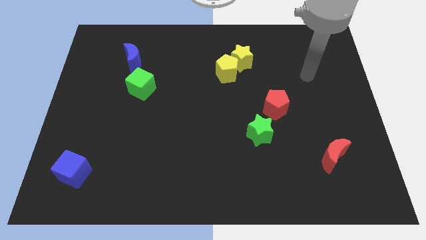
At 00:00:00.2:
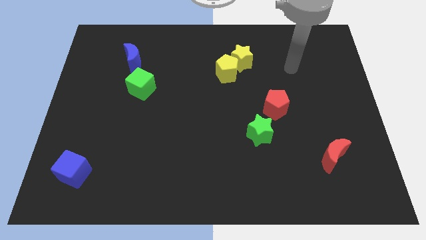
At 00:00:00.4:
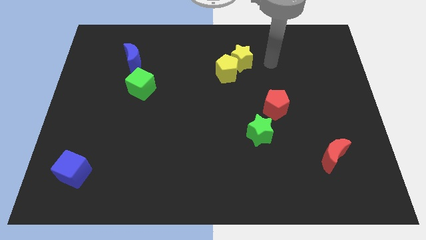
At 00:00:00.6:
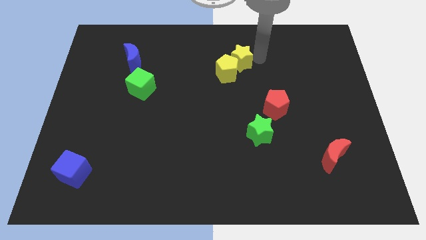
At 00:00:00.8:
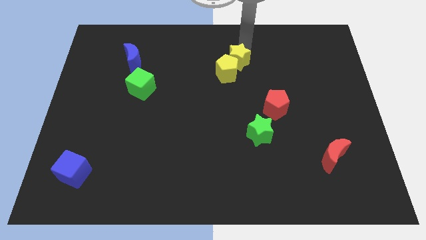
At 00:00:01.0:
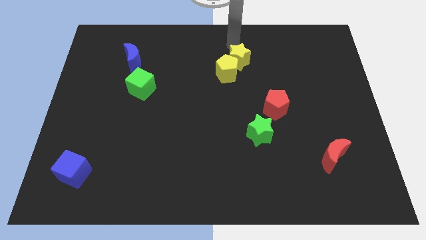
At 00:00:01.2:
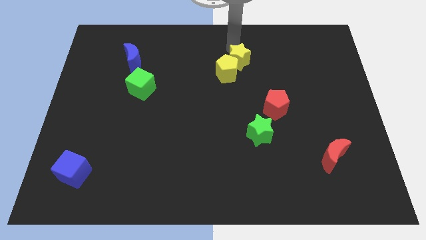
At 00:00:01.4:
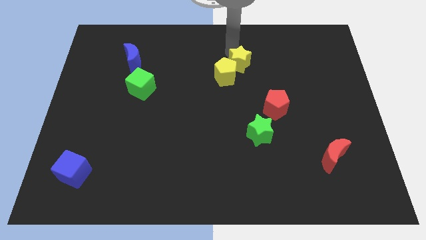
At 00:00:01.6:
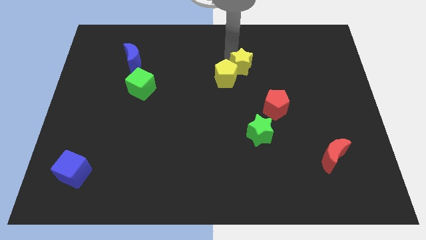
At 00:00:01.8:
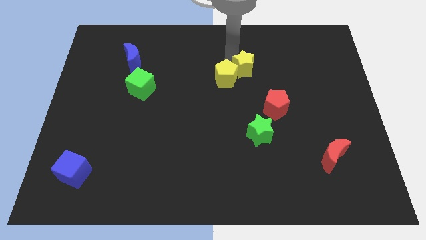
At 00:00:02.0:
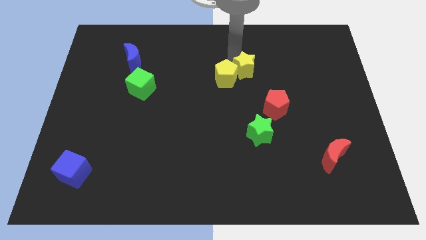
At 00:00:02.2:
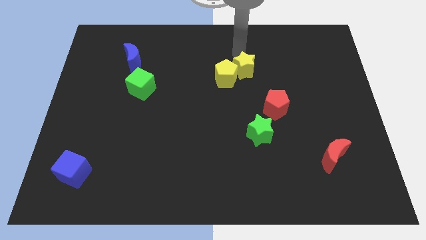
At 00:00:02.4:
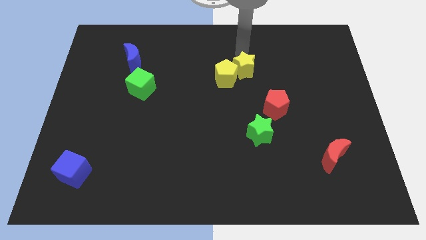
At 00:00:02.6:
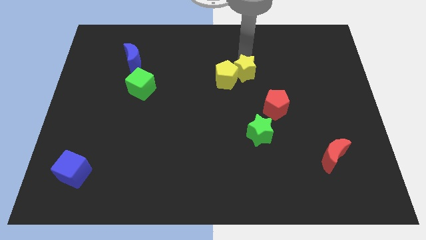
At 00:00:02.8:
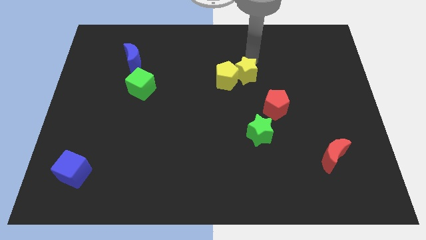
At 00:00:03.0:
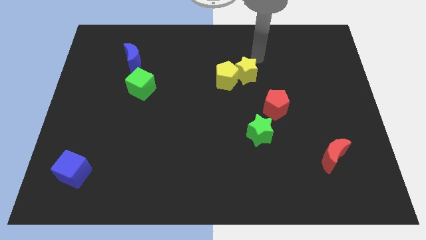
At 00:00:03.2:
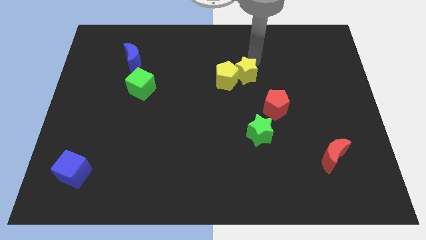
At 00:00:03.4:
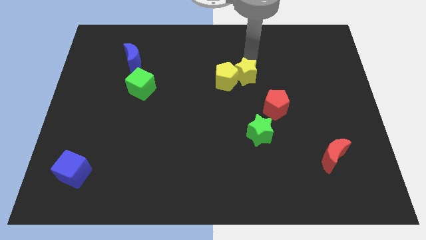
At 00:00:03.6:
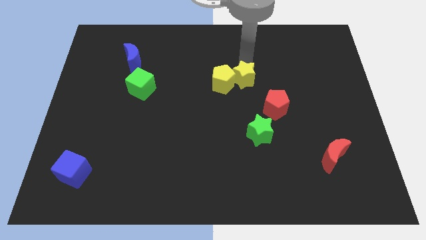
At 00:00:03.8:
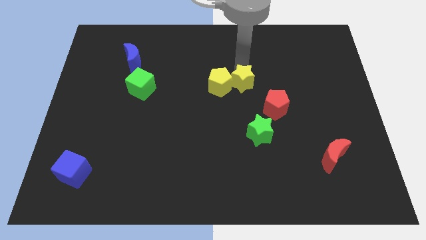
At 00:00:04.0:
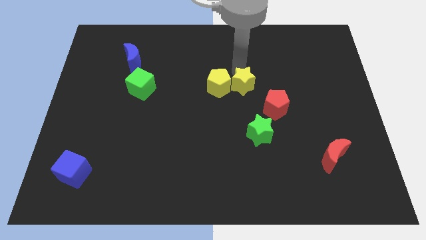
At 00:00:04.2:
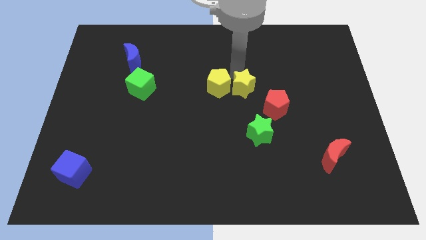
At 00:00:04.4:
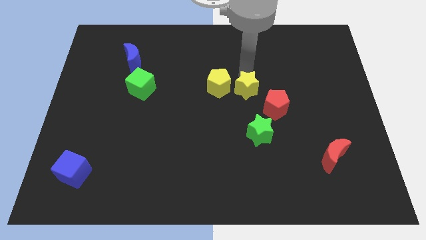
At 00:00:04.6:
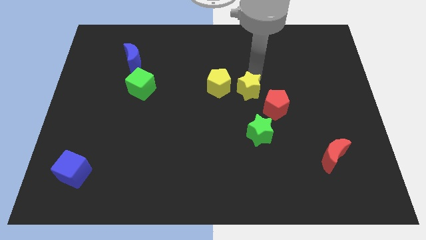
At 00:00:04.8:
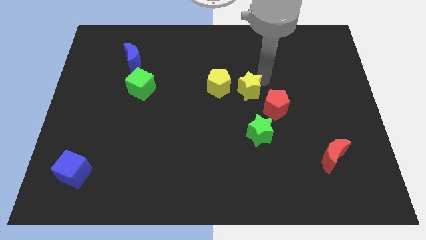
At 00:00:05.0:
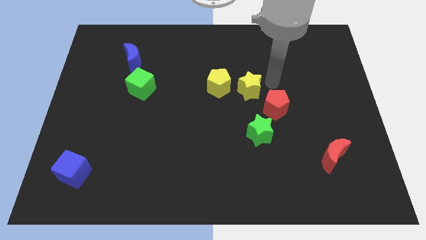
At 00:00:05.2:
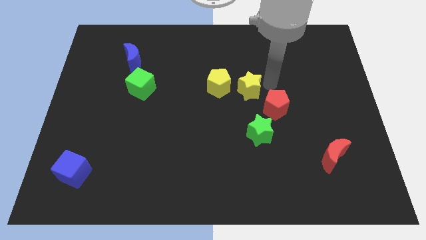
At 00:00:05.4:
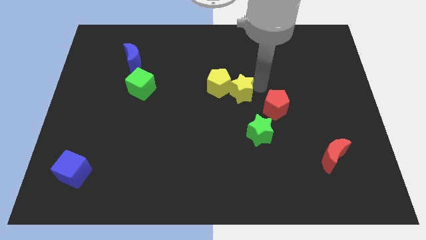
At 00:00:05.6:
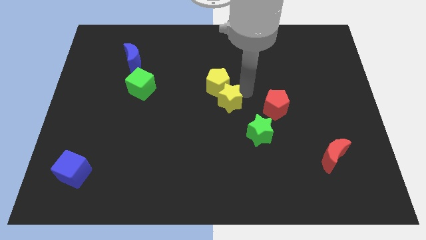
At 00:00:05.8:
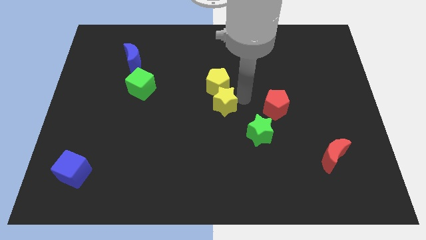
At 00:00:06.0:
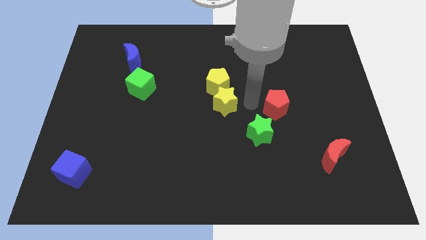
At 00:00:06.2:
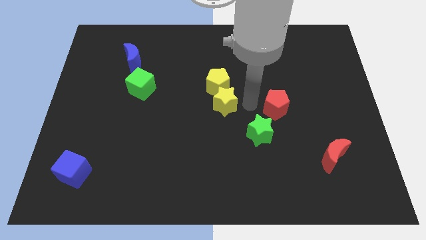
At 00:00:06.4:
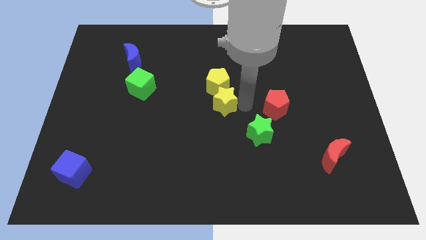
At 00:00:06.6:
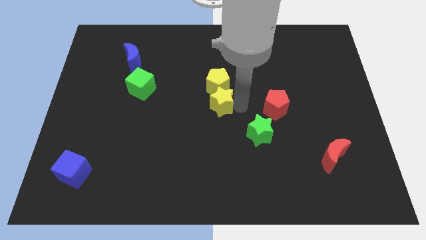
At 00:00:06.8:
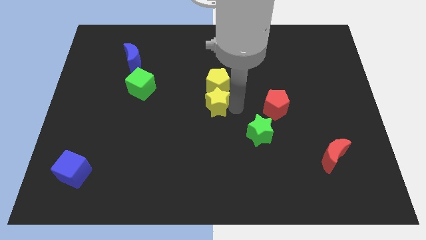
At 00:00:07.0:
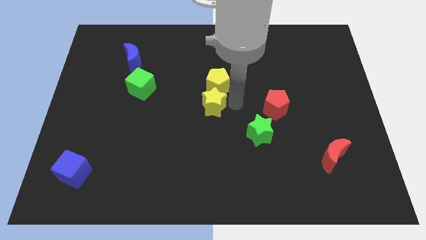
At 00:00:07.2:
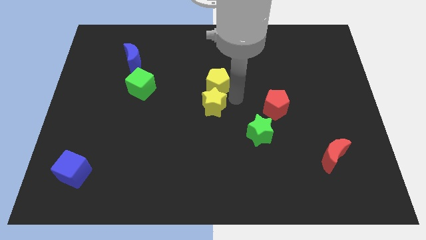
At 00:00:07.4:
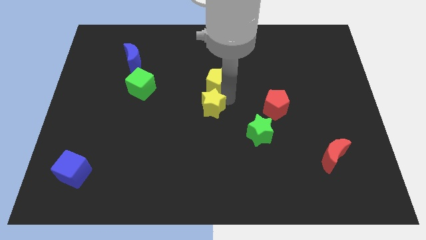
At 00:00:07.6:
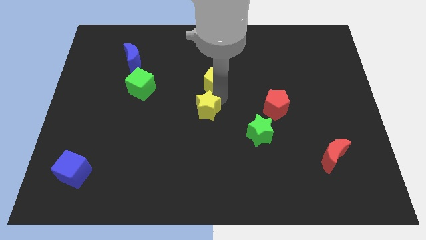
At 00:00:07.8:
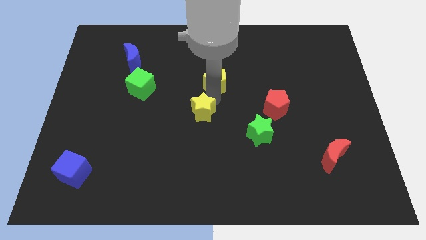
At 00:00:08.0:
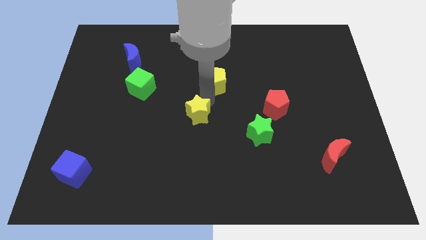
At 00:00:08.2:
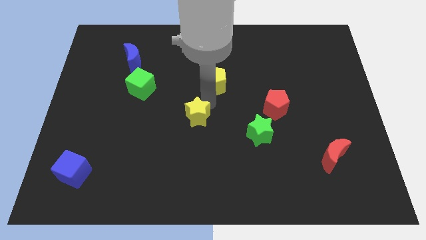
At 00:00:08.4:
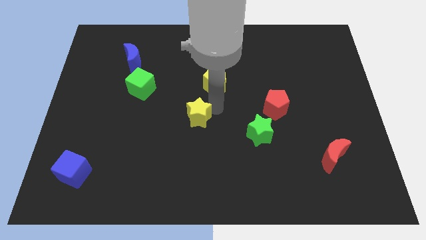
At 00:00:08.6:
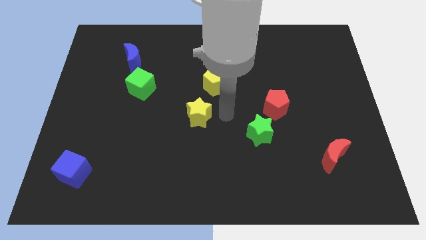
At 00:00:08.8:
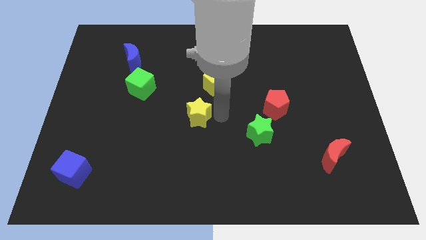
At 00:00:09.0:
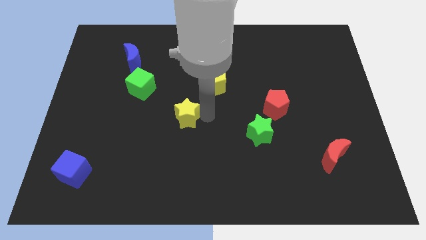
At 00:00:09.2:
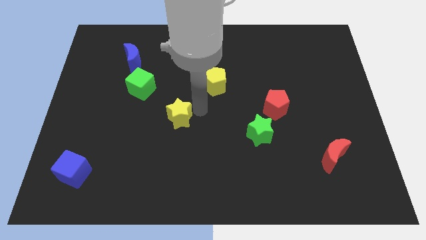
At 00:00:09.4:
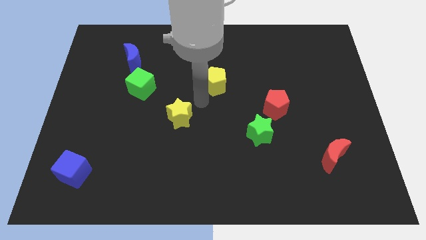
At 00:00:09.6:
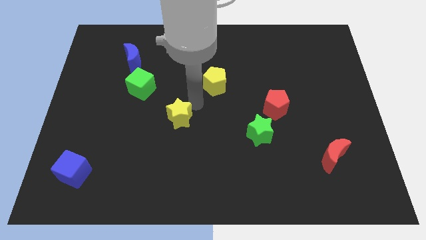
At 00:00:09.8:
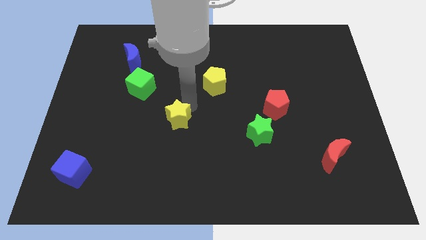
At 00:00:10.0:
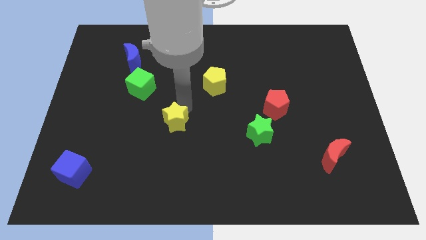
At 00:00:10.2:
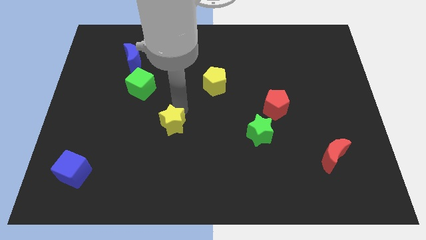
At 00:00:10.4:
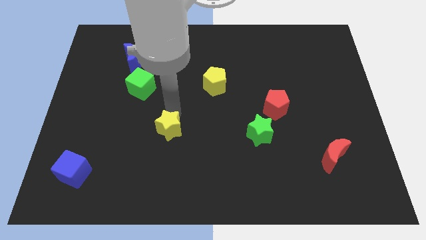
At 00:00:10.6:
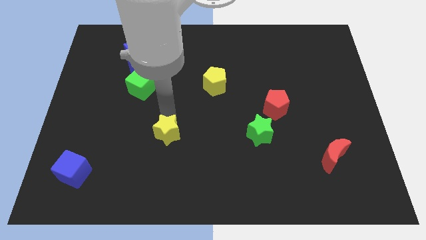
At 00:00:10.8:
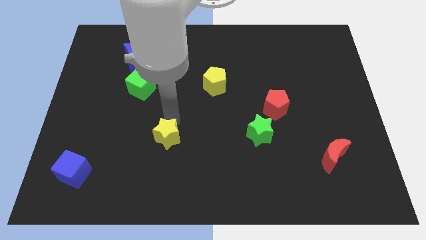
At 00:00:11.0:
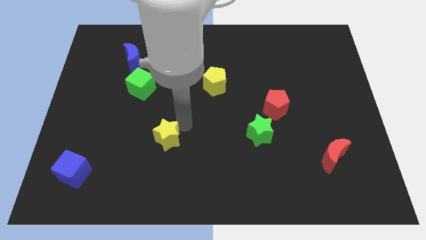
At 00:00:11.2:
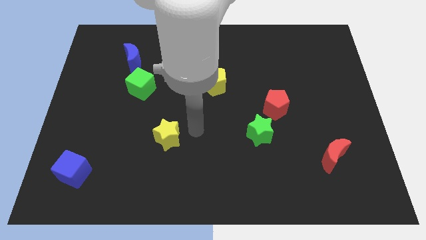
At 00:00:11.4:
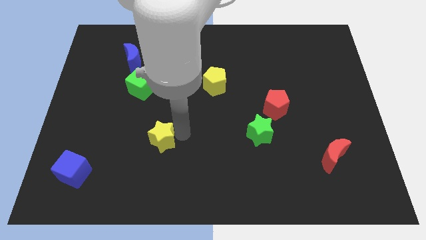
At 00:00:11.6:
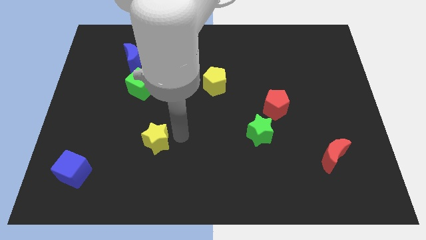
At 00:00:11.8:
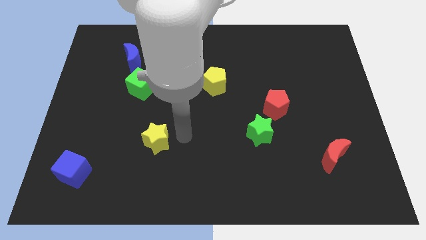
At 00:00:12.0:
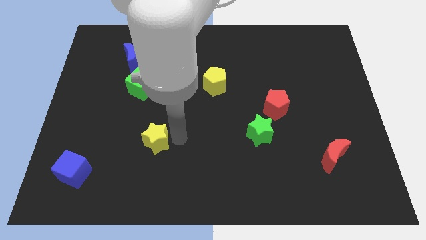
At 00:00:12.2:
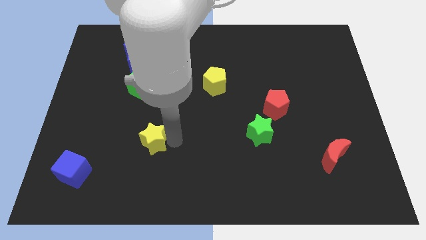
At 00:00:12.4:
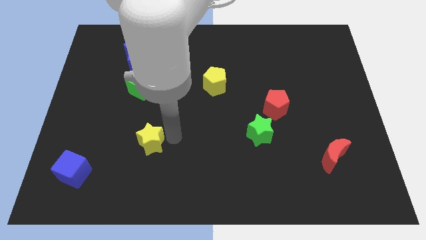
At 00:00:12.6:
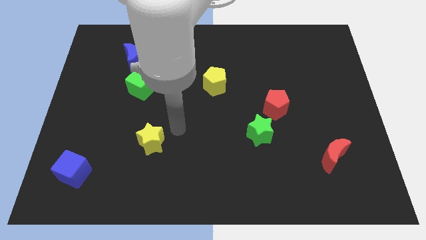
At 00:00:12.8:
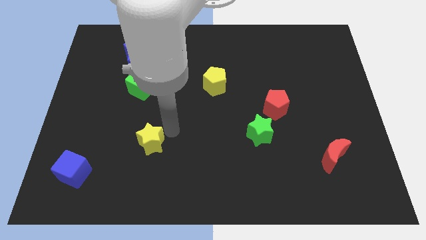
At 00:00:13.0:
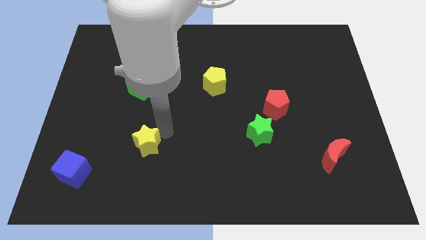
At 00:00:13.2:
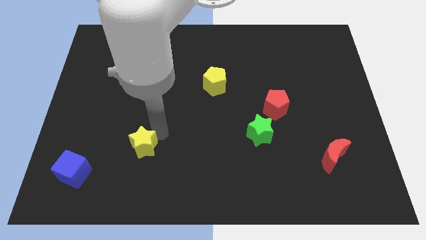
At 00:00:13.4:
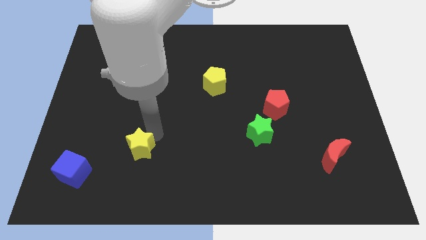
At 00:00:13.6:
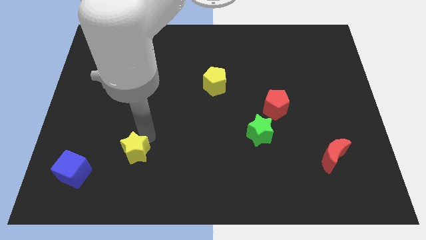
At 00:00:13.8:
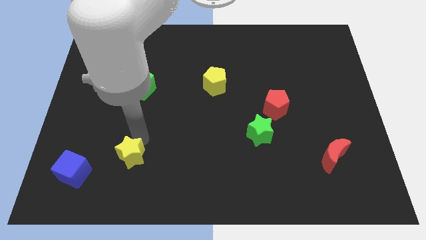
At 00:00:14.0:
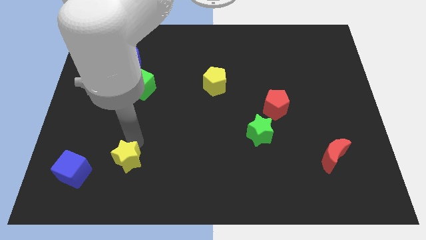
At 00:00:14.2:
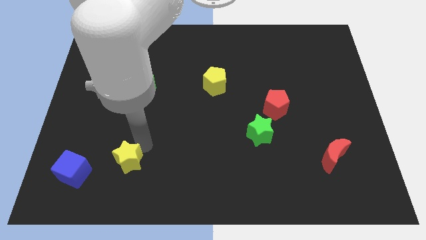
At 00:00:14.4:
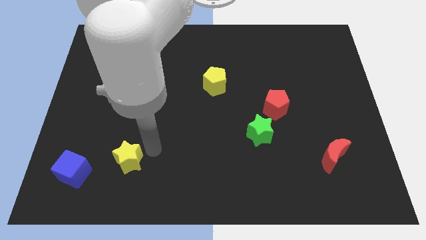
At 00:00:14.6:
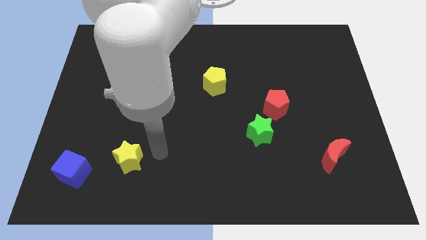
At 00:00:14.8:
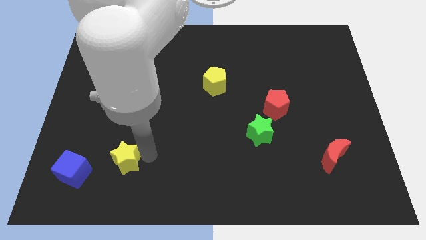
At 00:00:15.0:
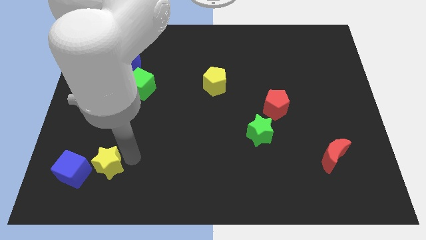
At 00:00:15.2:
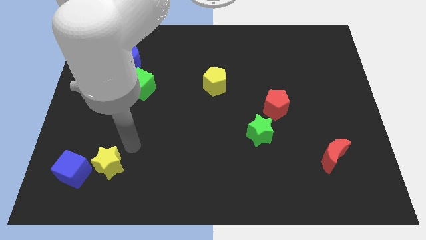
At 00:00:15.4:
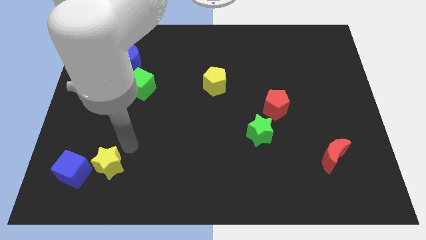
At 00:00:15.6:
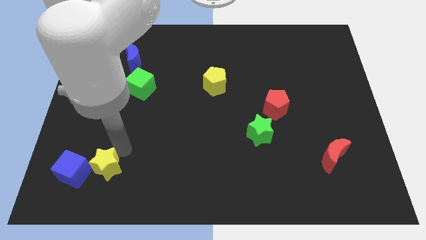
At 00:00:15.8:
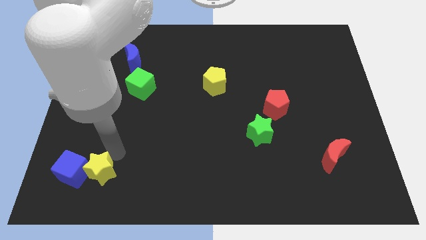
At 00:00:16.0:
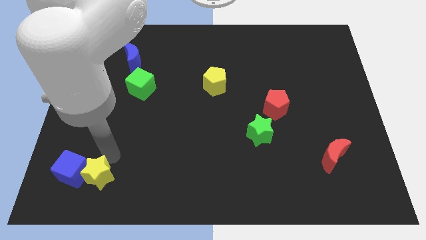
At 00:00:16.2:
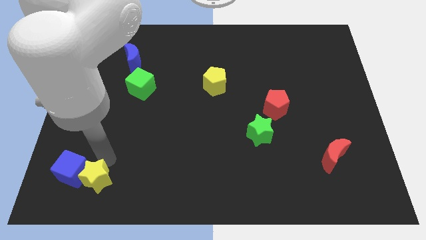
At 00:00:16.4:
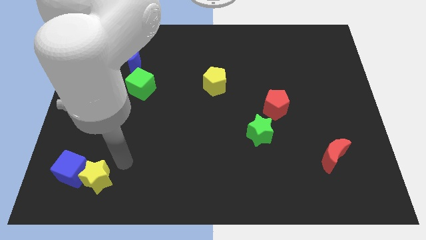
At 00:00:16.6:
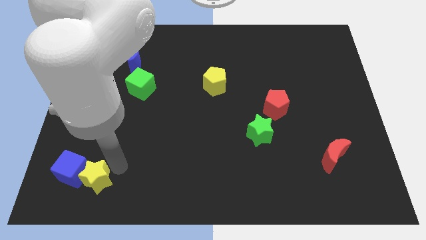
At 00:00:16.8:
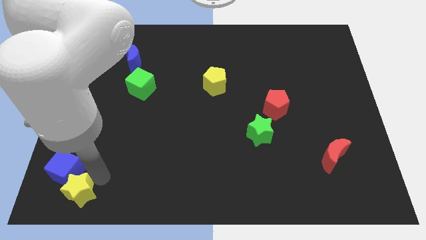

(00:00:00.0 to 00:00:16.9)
put the yellow star to the bottom left corner
